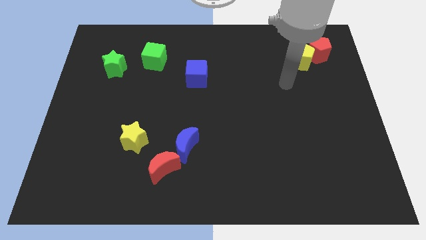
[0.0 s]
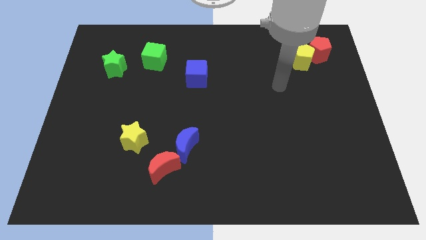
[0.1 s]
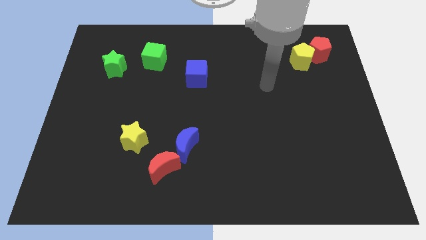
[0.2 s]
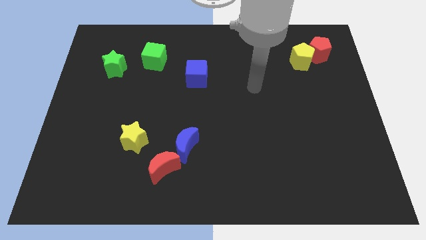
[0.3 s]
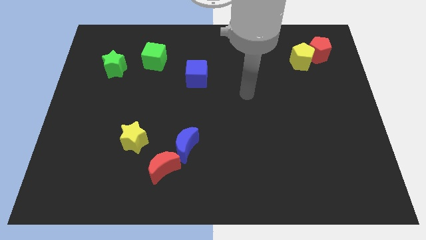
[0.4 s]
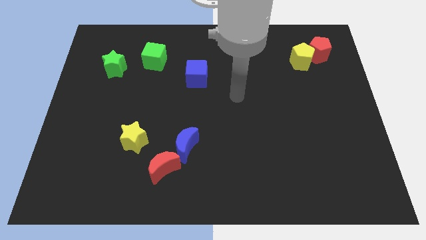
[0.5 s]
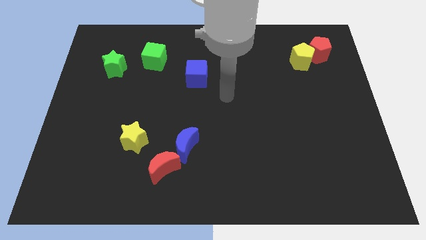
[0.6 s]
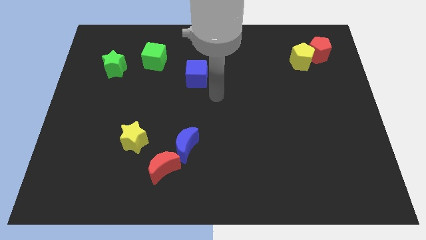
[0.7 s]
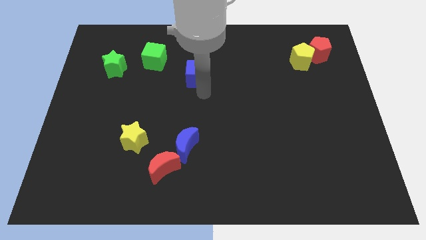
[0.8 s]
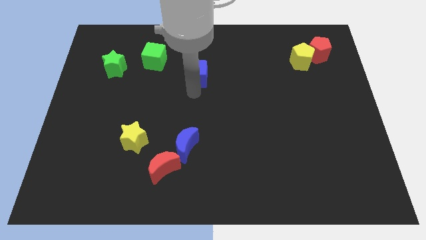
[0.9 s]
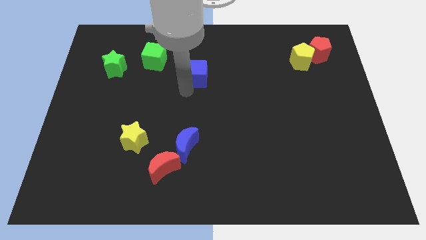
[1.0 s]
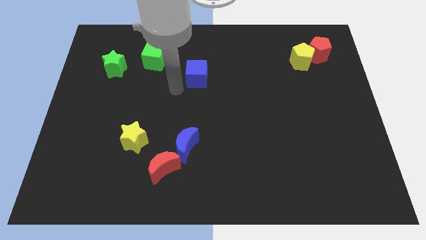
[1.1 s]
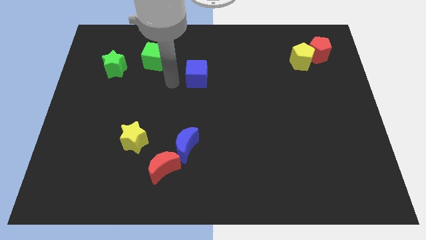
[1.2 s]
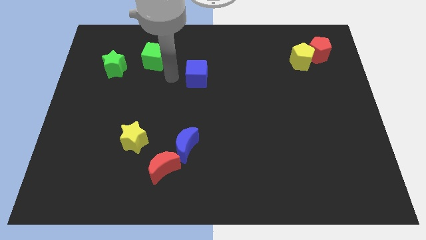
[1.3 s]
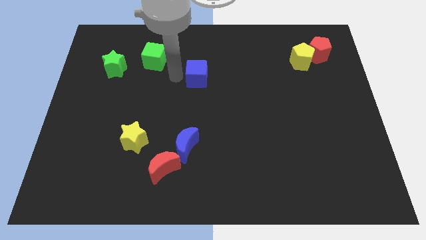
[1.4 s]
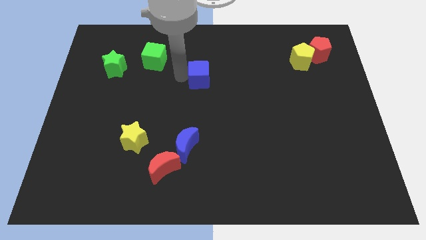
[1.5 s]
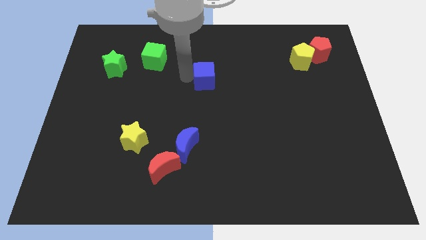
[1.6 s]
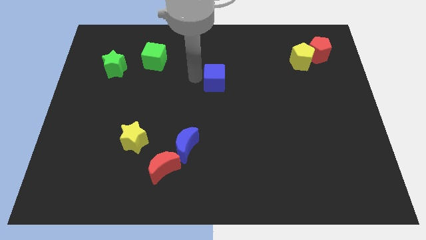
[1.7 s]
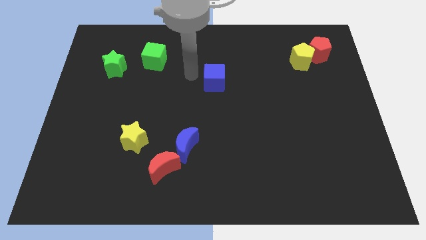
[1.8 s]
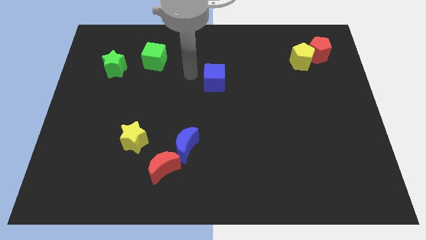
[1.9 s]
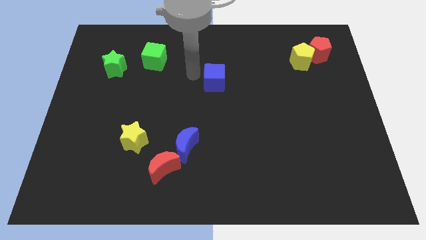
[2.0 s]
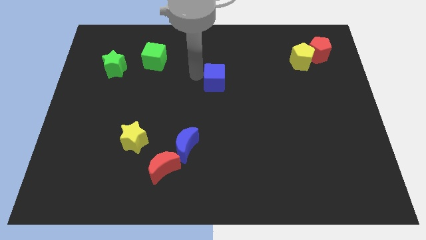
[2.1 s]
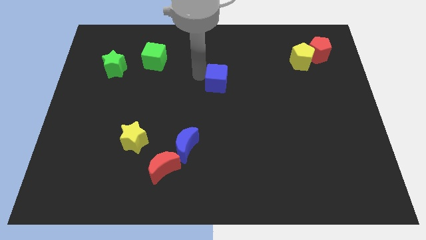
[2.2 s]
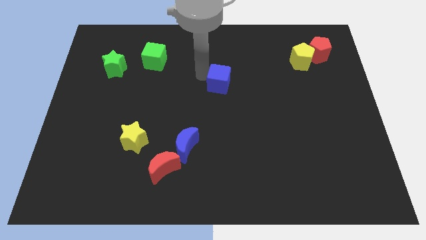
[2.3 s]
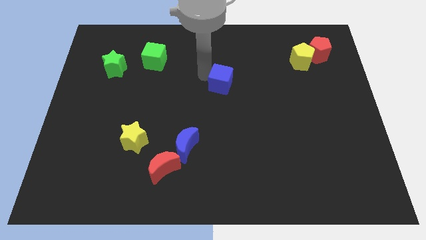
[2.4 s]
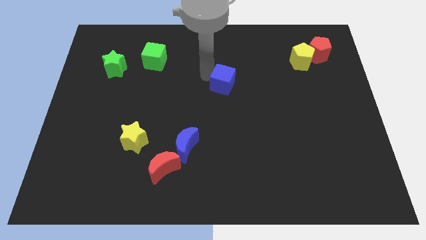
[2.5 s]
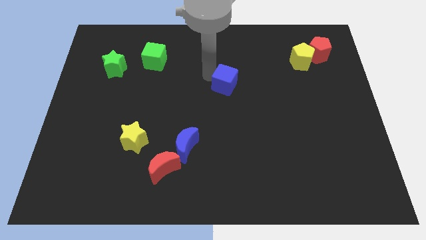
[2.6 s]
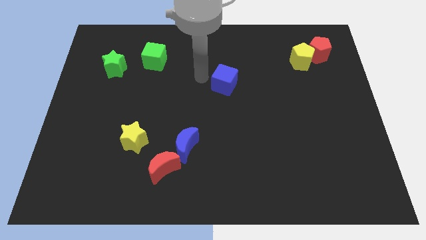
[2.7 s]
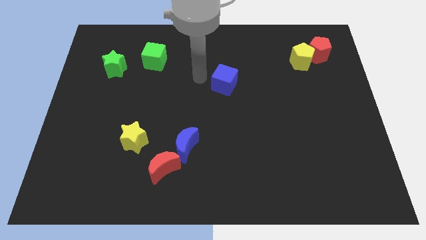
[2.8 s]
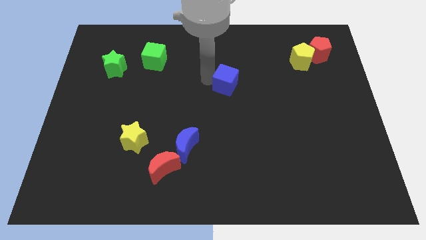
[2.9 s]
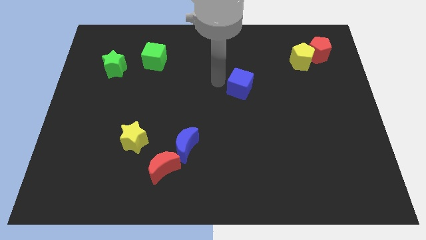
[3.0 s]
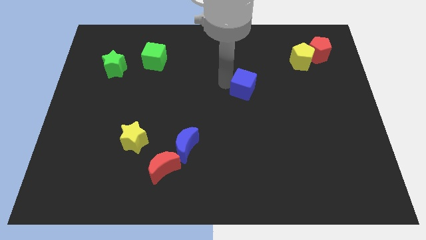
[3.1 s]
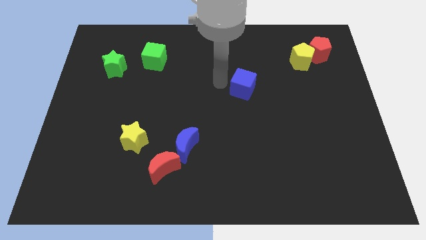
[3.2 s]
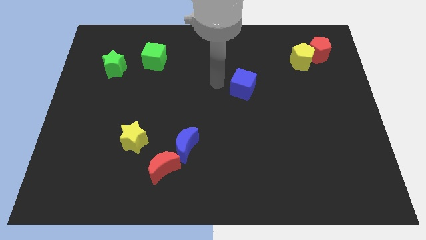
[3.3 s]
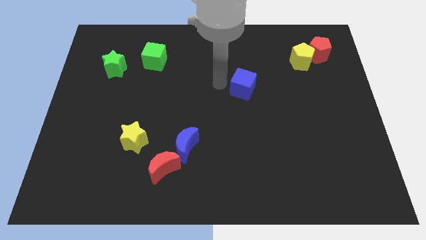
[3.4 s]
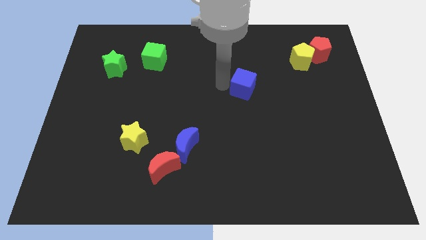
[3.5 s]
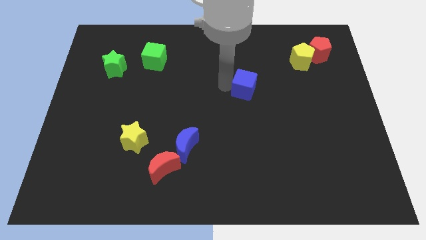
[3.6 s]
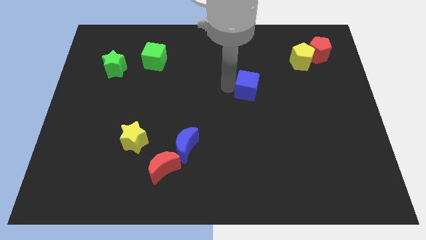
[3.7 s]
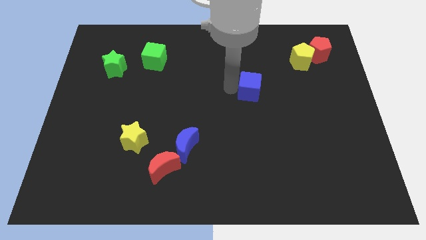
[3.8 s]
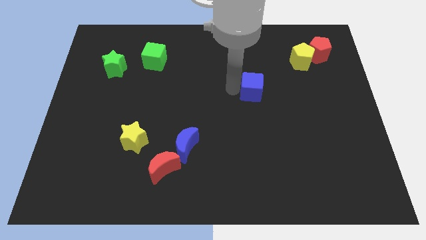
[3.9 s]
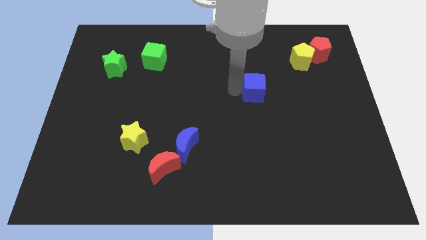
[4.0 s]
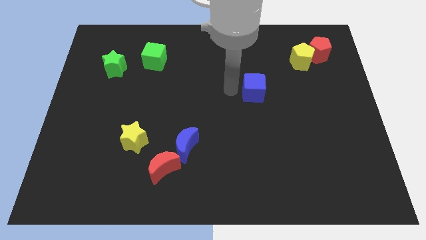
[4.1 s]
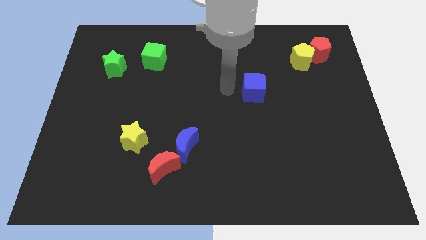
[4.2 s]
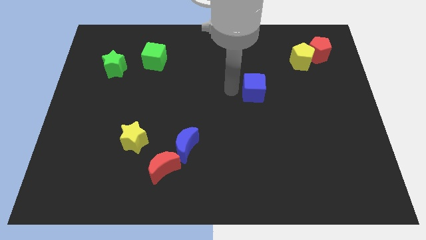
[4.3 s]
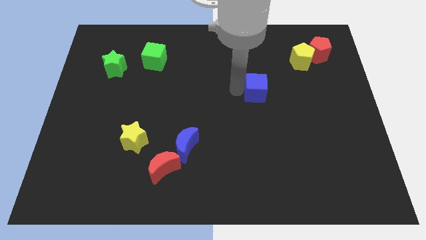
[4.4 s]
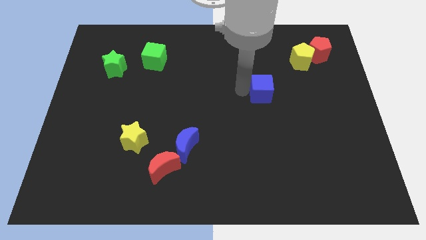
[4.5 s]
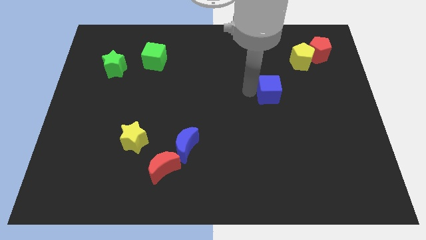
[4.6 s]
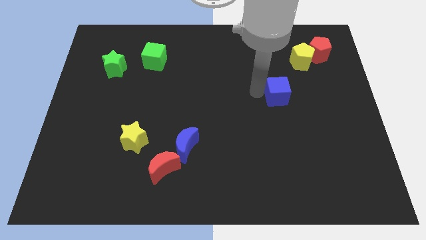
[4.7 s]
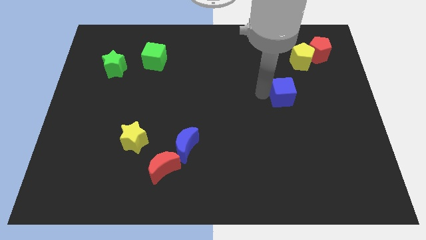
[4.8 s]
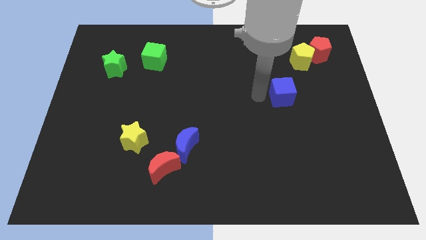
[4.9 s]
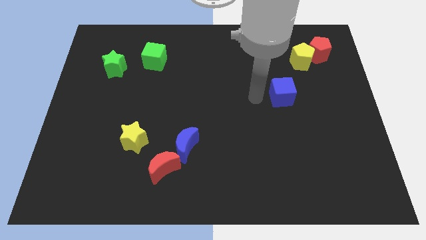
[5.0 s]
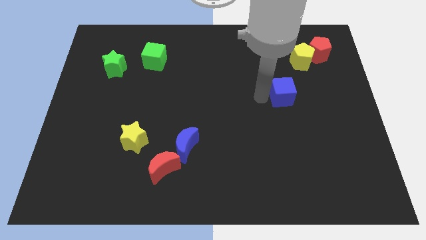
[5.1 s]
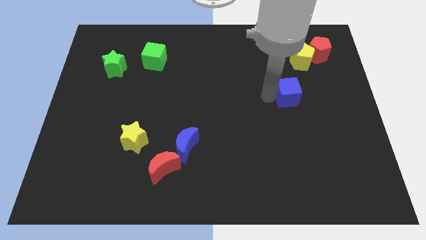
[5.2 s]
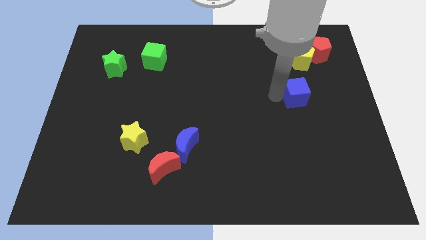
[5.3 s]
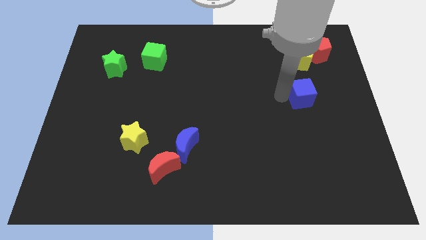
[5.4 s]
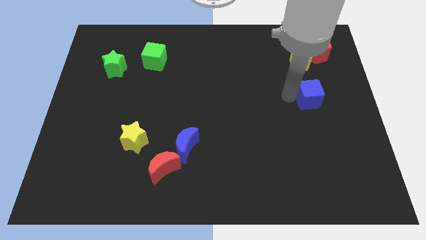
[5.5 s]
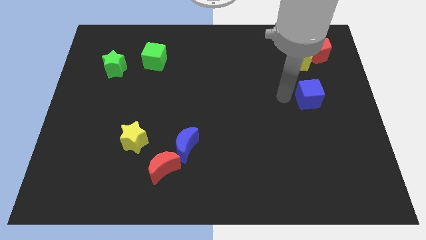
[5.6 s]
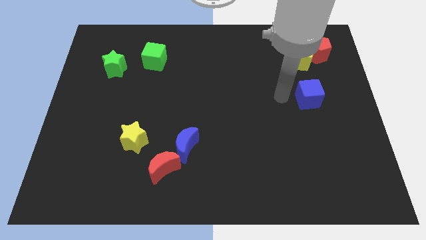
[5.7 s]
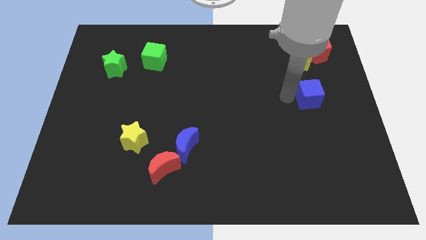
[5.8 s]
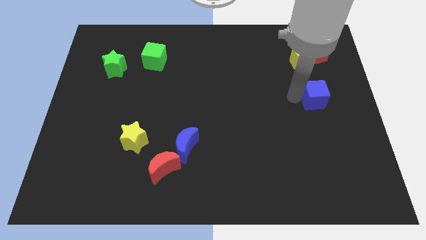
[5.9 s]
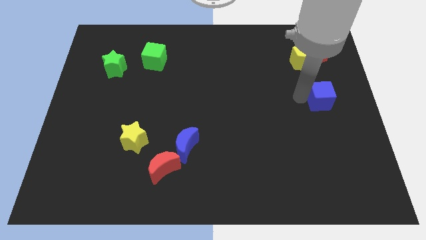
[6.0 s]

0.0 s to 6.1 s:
push the blue cube to the right side of the board
